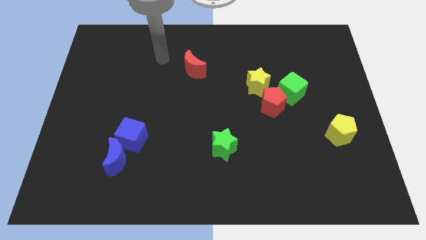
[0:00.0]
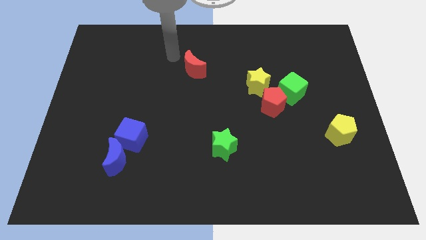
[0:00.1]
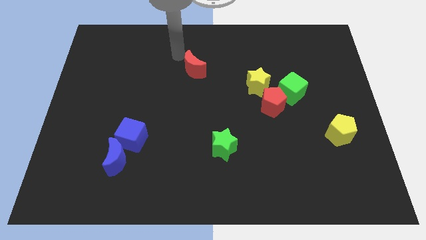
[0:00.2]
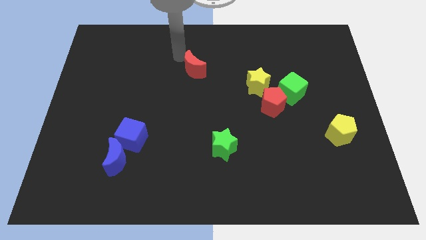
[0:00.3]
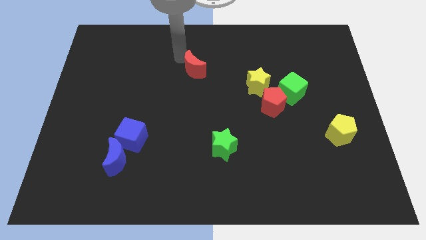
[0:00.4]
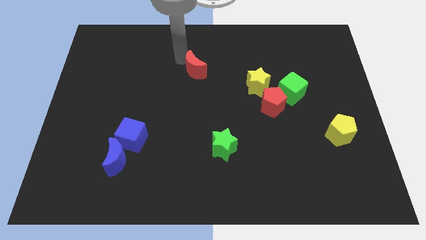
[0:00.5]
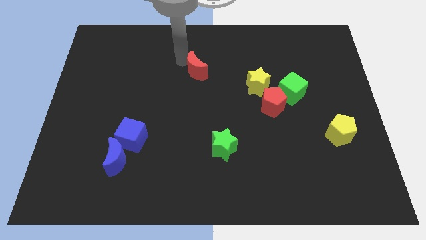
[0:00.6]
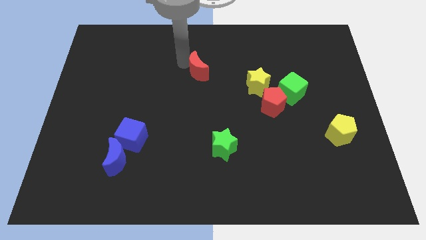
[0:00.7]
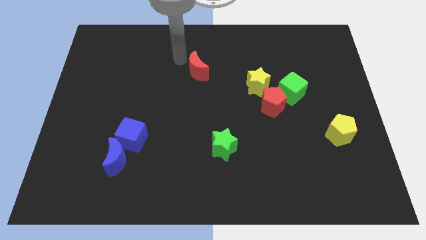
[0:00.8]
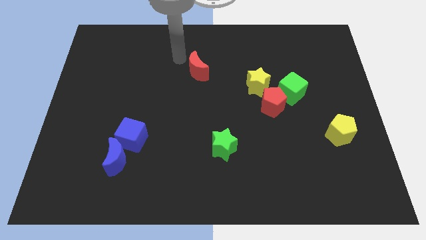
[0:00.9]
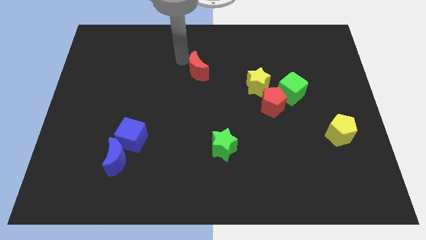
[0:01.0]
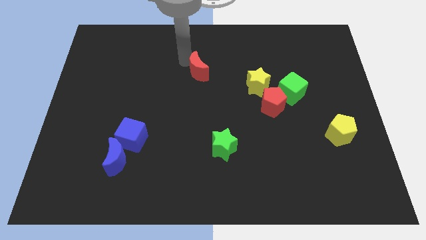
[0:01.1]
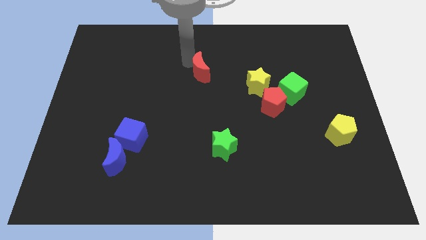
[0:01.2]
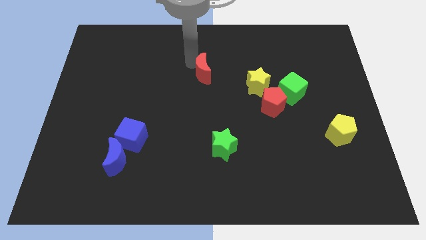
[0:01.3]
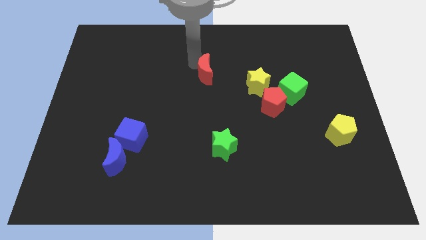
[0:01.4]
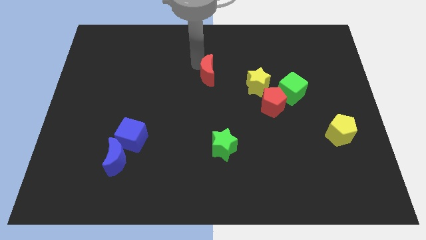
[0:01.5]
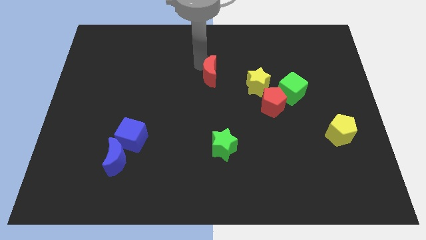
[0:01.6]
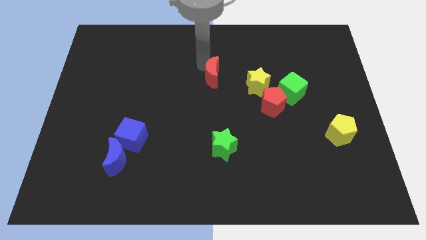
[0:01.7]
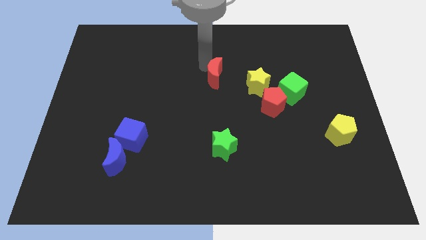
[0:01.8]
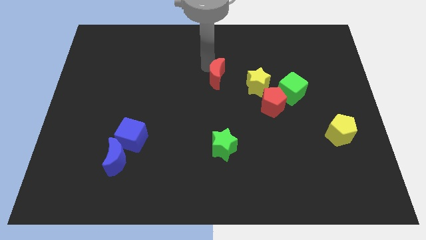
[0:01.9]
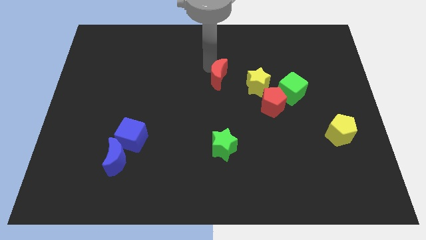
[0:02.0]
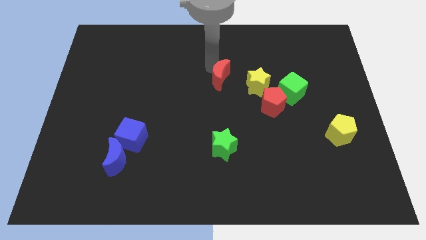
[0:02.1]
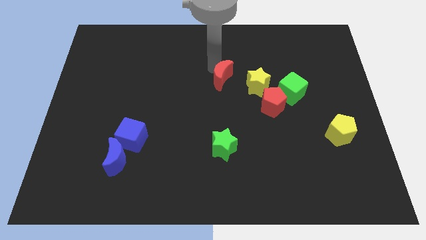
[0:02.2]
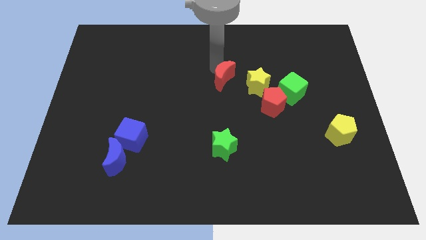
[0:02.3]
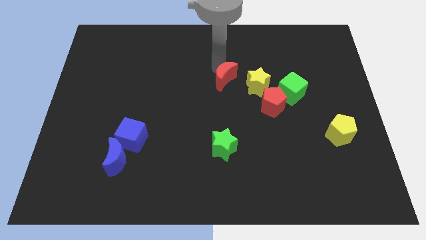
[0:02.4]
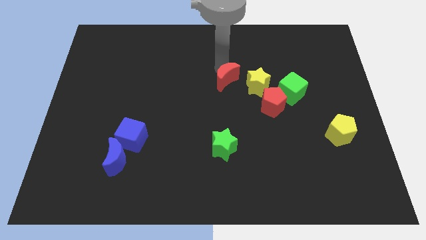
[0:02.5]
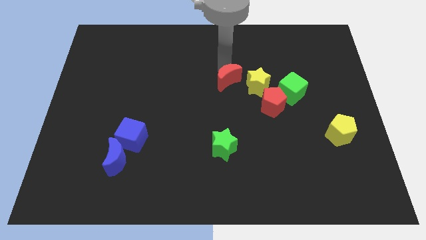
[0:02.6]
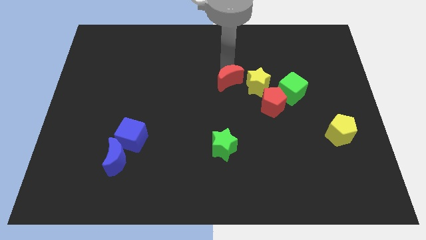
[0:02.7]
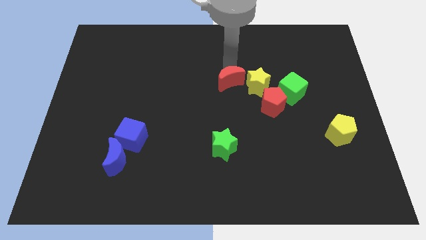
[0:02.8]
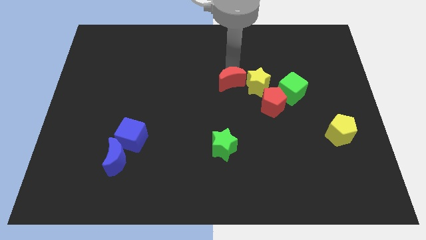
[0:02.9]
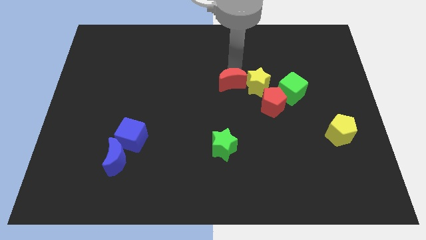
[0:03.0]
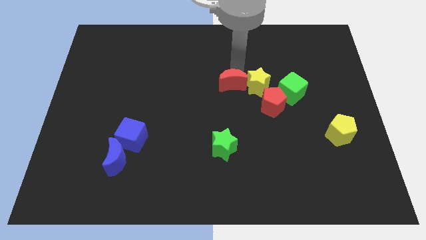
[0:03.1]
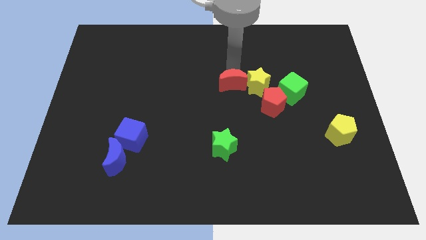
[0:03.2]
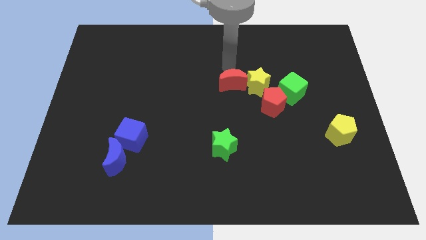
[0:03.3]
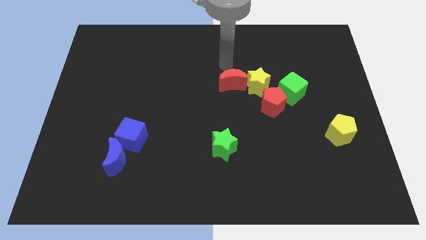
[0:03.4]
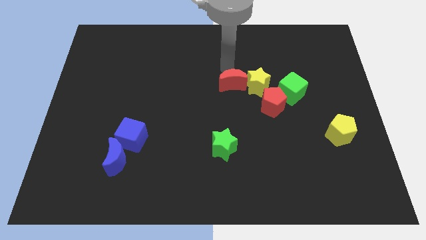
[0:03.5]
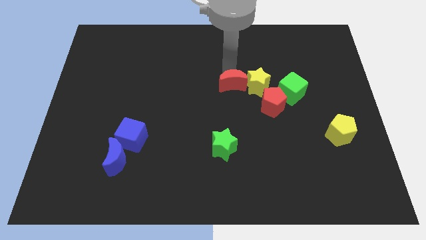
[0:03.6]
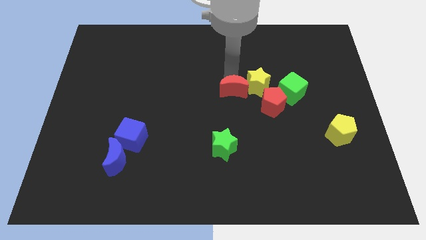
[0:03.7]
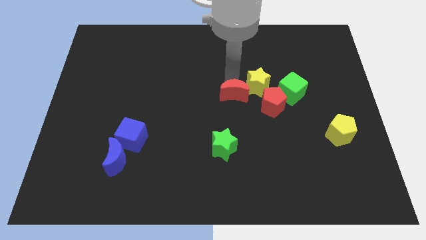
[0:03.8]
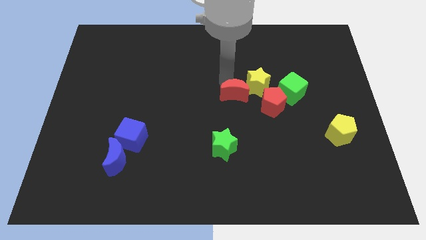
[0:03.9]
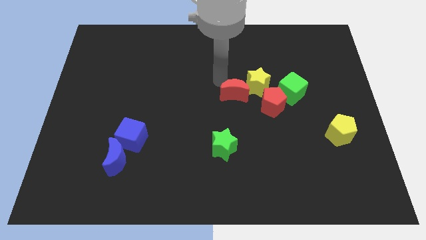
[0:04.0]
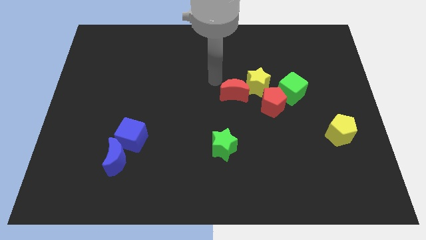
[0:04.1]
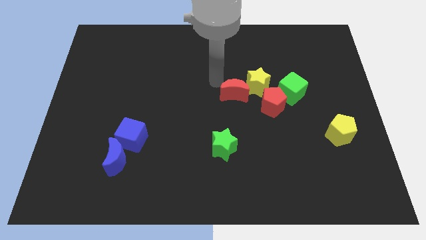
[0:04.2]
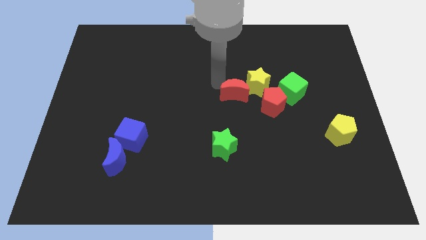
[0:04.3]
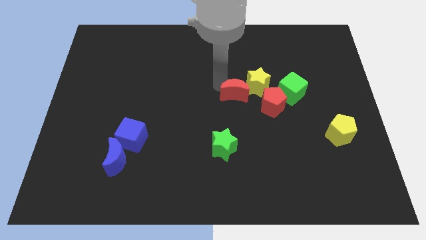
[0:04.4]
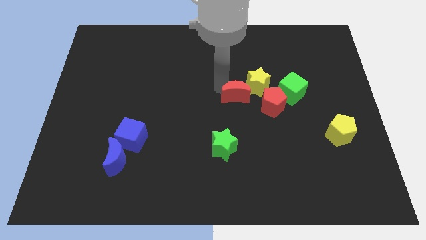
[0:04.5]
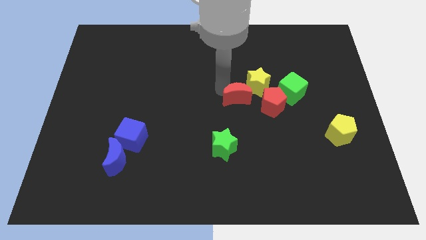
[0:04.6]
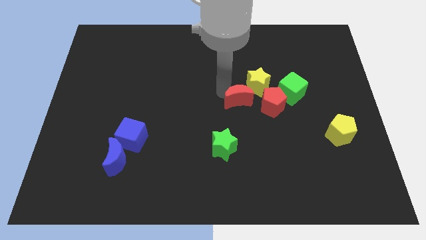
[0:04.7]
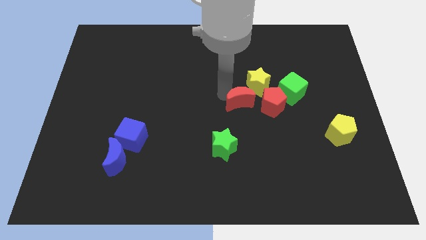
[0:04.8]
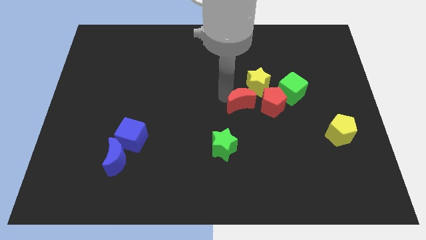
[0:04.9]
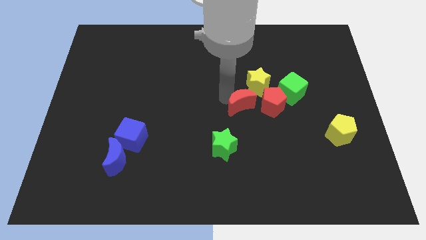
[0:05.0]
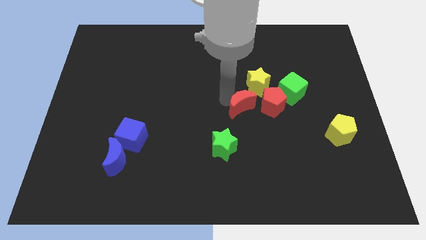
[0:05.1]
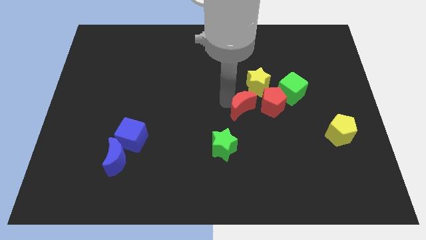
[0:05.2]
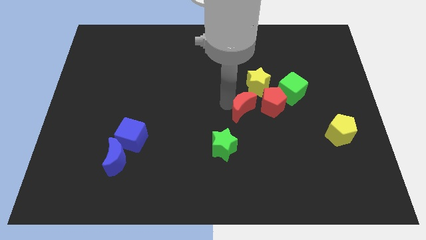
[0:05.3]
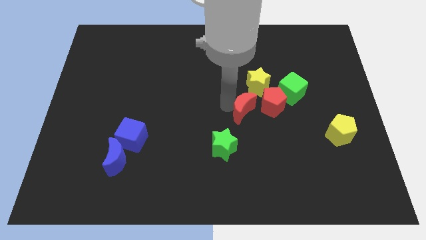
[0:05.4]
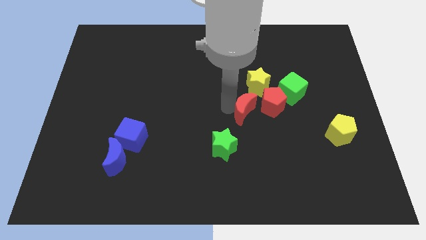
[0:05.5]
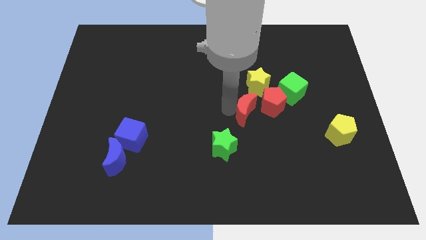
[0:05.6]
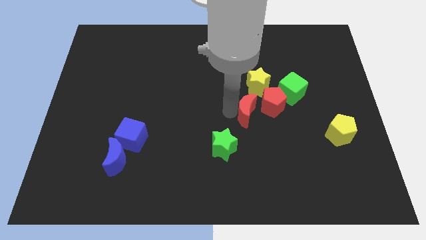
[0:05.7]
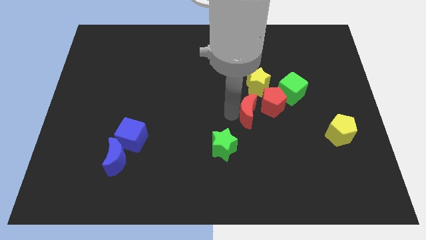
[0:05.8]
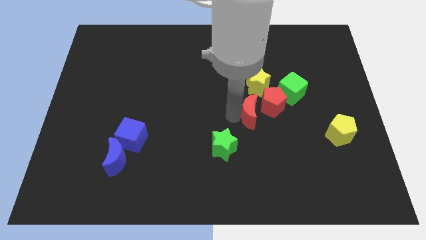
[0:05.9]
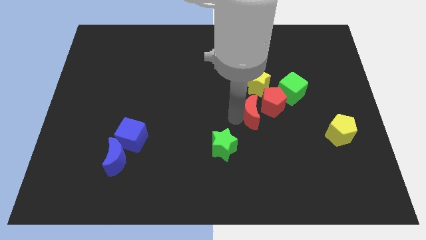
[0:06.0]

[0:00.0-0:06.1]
push the red moon to the red pentagon
